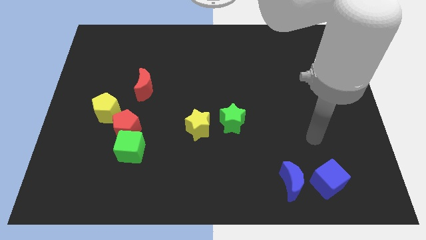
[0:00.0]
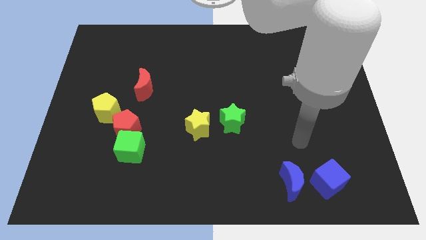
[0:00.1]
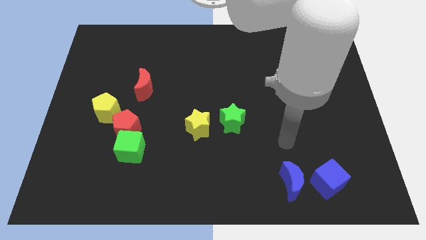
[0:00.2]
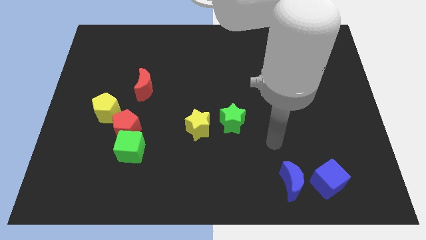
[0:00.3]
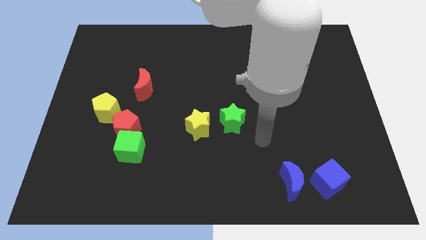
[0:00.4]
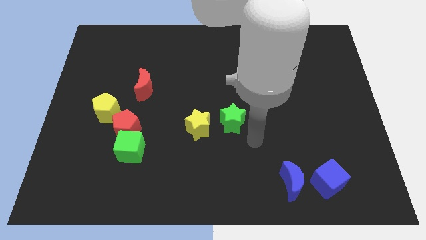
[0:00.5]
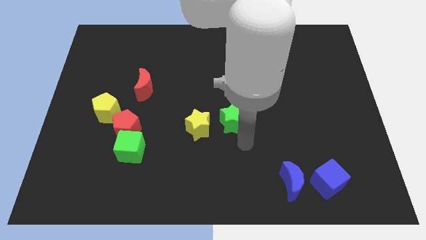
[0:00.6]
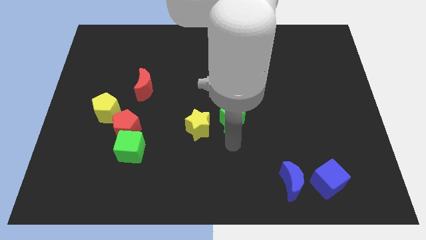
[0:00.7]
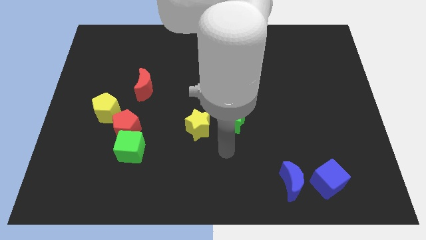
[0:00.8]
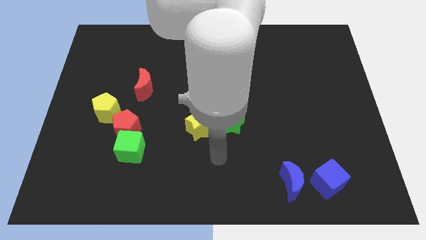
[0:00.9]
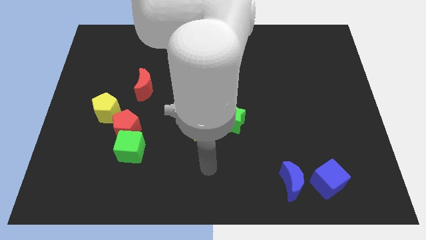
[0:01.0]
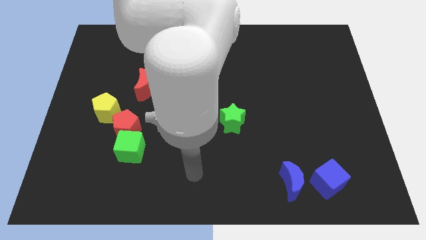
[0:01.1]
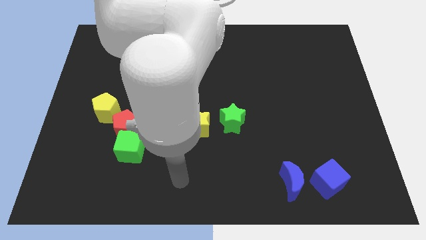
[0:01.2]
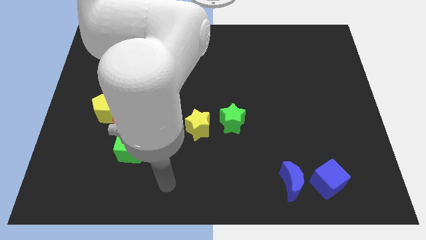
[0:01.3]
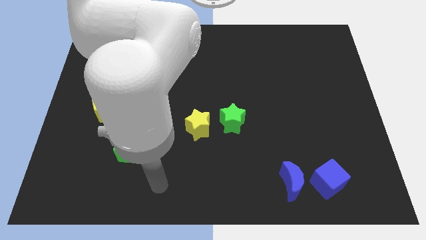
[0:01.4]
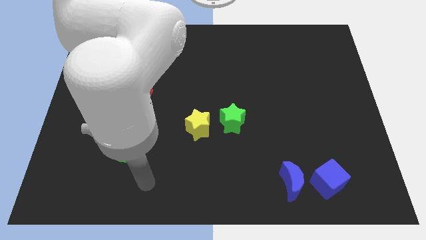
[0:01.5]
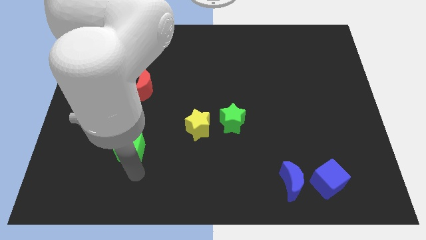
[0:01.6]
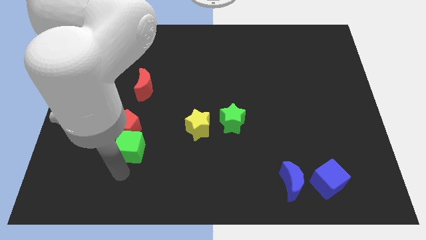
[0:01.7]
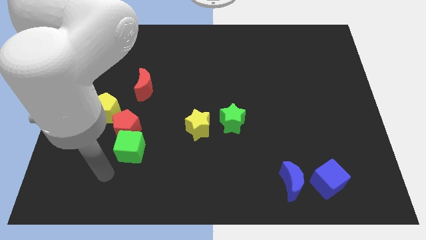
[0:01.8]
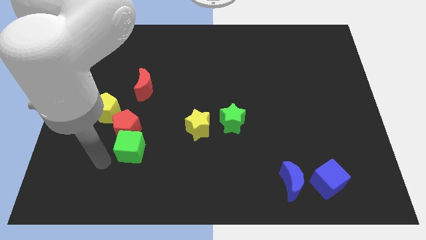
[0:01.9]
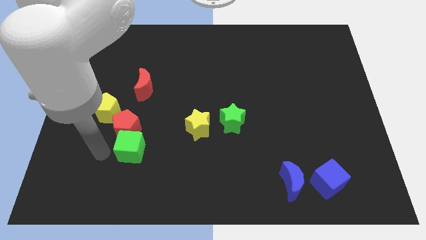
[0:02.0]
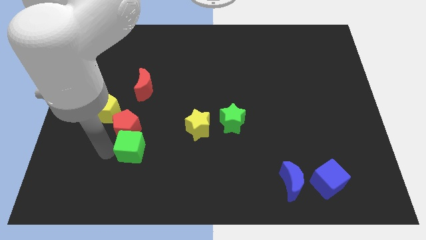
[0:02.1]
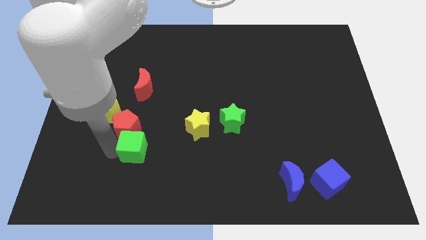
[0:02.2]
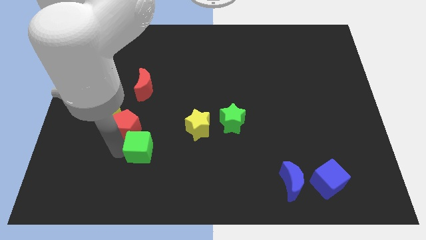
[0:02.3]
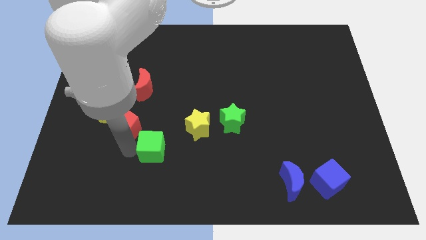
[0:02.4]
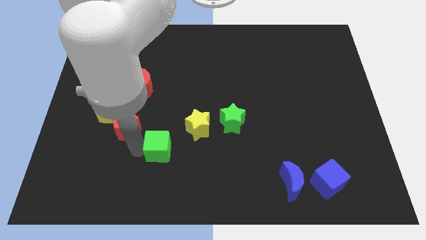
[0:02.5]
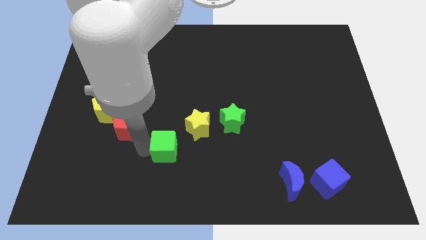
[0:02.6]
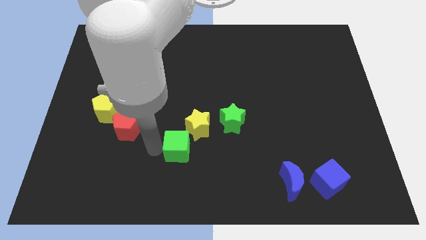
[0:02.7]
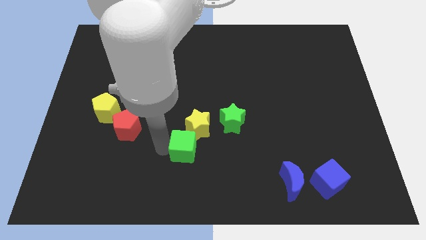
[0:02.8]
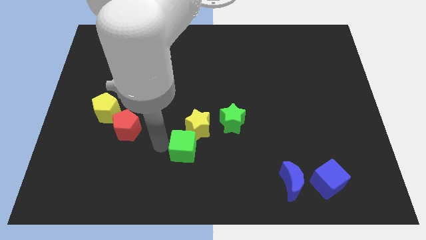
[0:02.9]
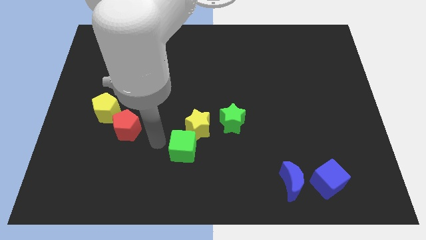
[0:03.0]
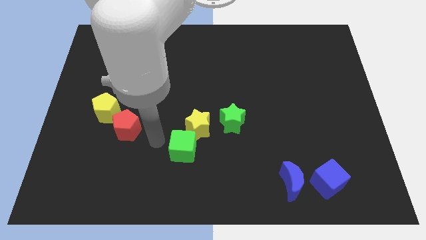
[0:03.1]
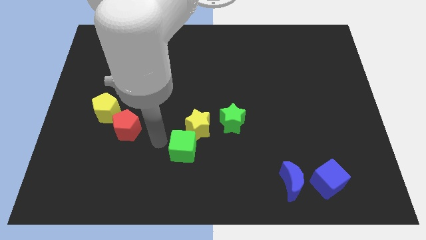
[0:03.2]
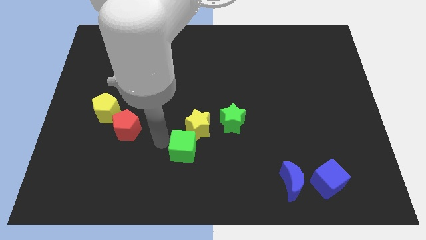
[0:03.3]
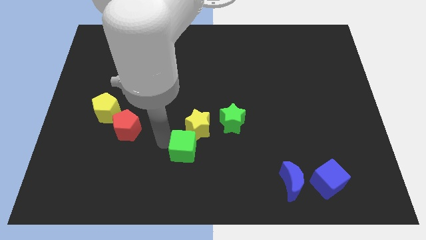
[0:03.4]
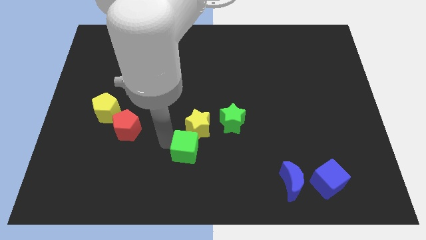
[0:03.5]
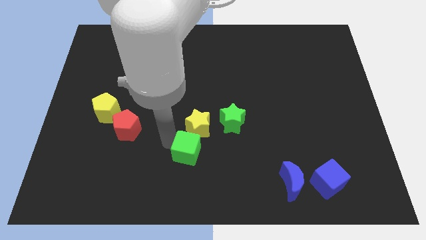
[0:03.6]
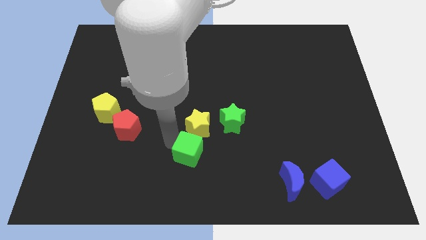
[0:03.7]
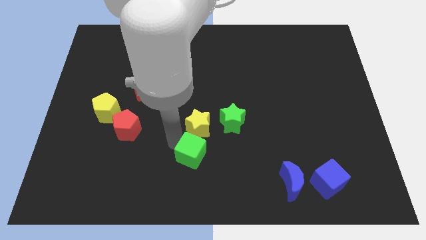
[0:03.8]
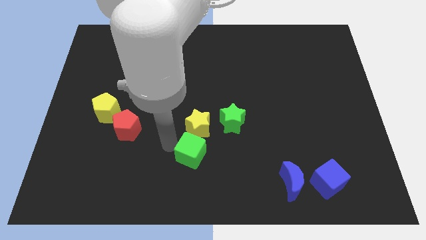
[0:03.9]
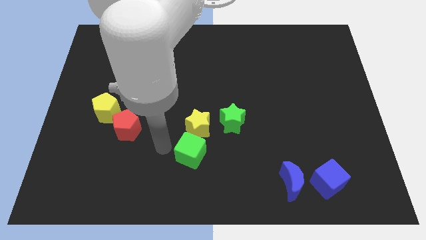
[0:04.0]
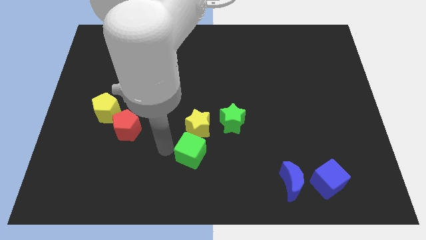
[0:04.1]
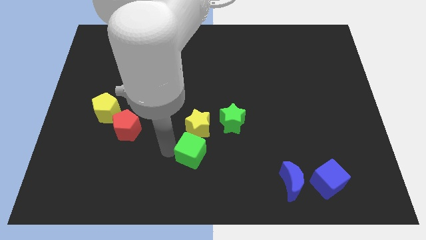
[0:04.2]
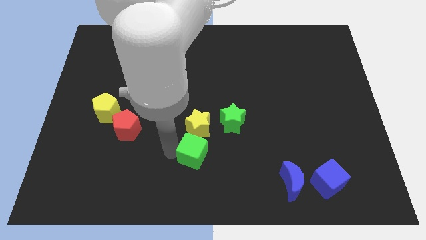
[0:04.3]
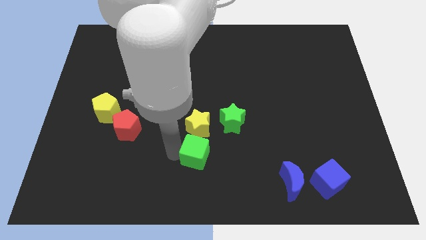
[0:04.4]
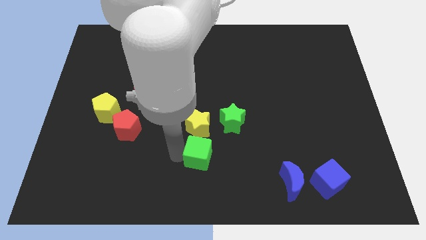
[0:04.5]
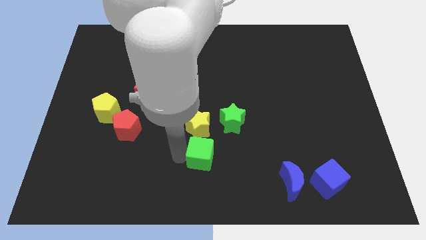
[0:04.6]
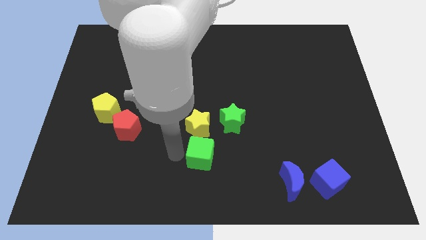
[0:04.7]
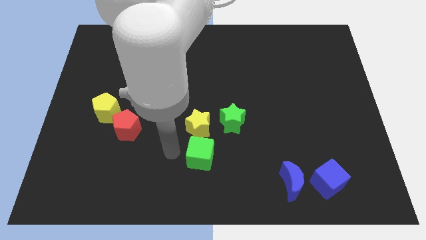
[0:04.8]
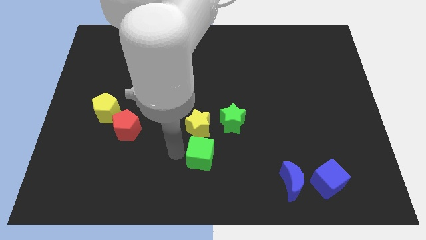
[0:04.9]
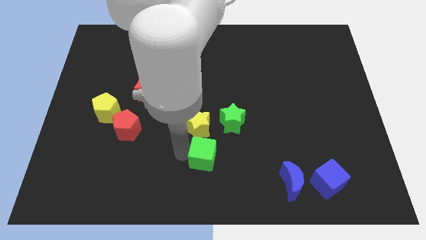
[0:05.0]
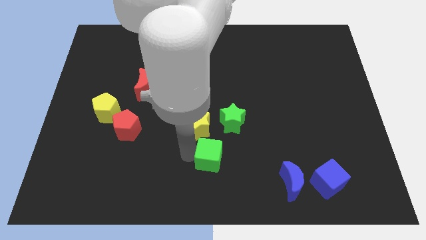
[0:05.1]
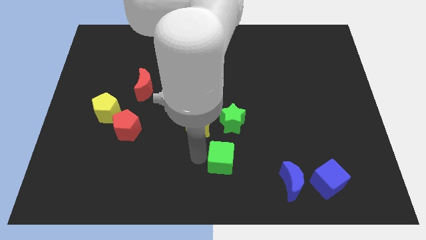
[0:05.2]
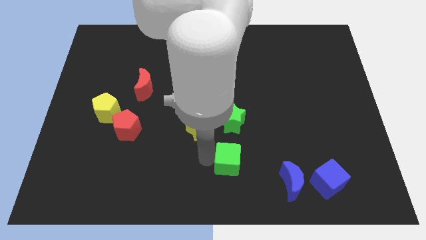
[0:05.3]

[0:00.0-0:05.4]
push the green cube right

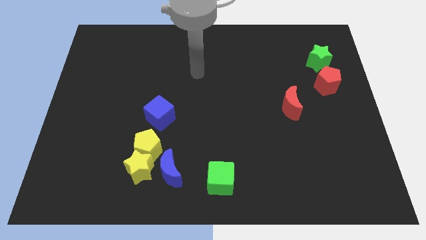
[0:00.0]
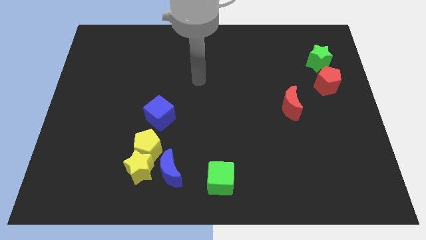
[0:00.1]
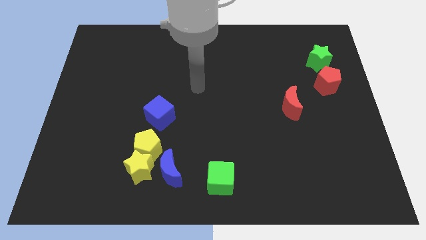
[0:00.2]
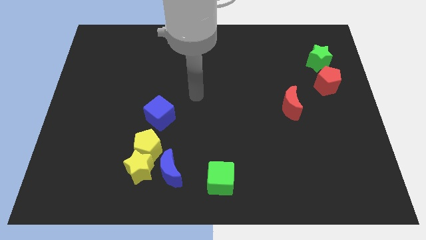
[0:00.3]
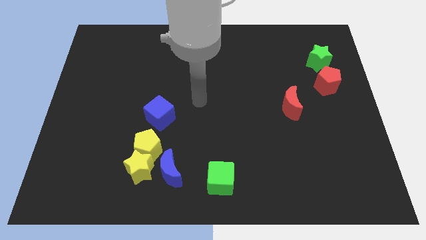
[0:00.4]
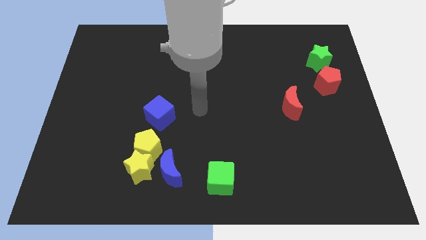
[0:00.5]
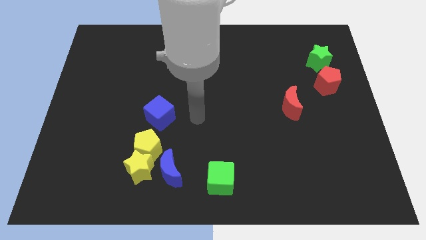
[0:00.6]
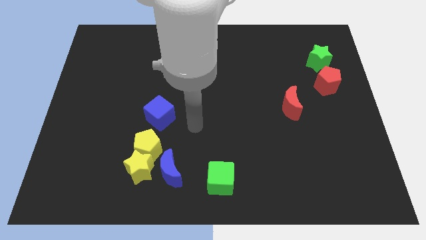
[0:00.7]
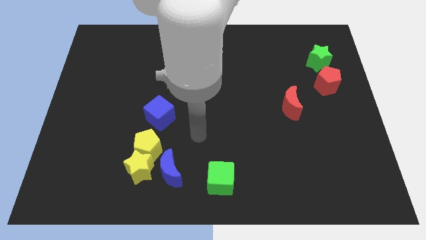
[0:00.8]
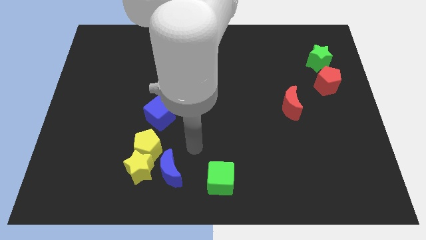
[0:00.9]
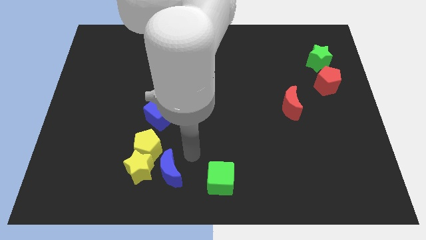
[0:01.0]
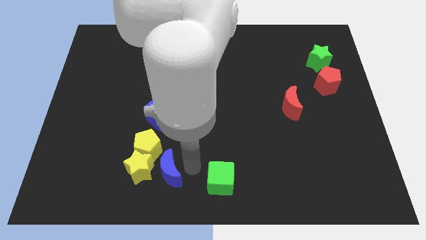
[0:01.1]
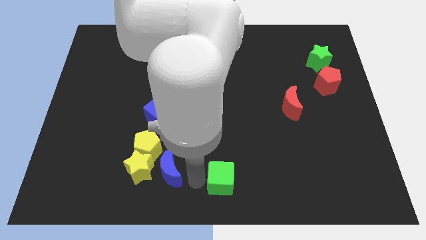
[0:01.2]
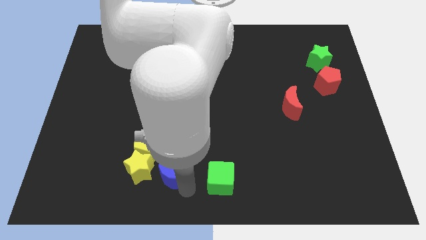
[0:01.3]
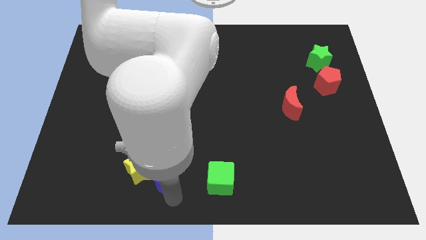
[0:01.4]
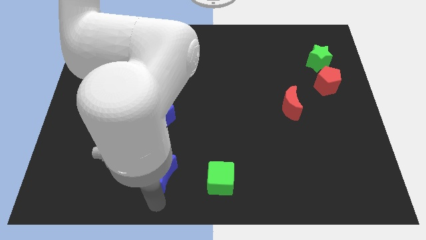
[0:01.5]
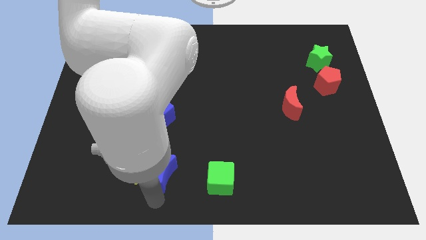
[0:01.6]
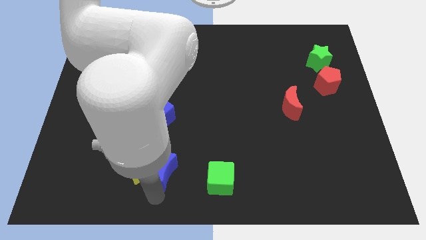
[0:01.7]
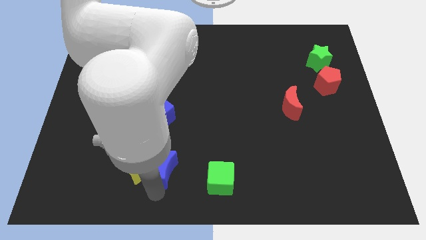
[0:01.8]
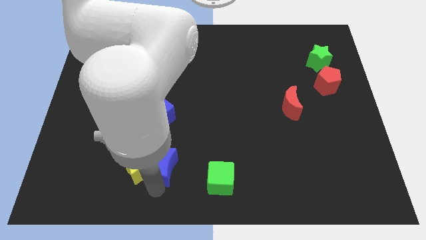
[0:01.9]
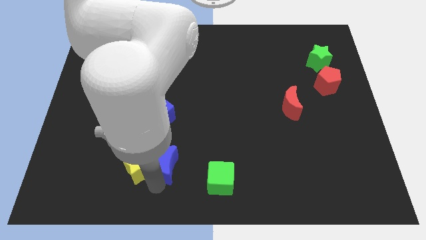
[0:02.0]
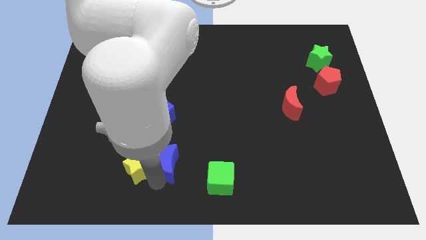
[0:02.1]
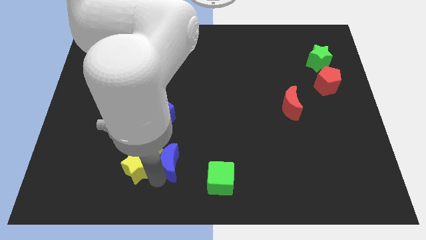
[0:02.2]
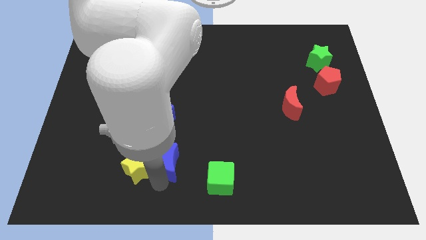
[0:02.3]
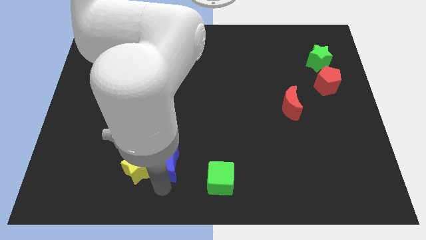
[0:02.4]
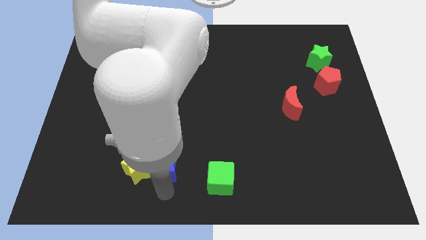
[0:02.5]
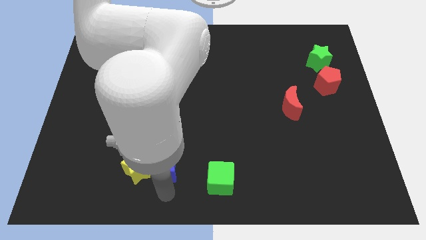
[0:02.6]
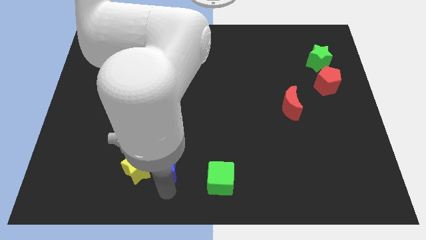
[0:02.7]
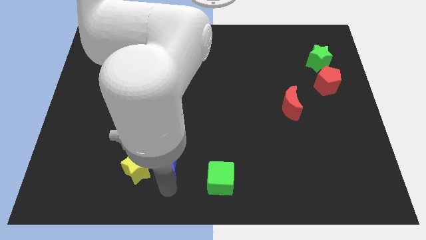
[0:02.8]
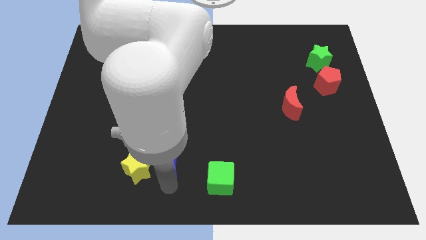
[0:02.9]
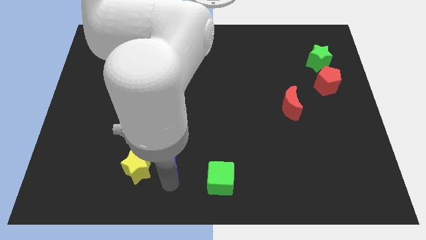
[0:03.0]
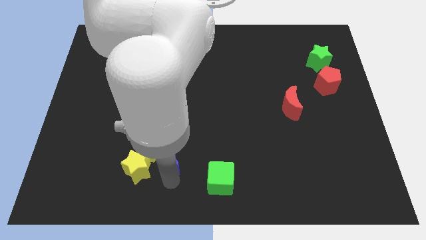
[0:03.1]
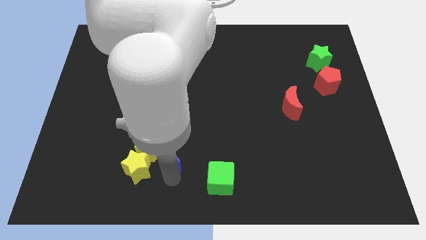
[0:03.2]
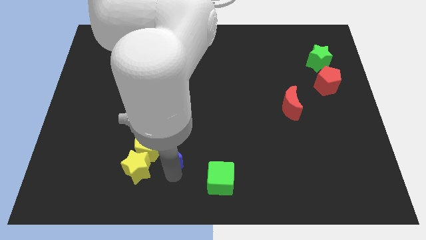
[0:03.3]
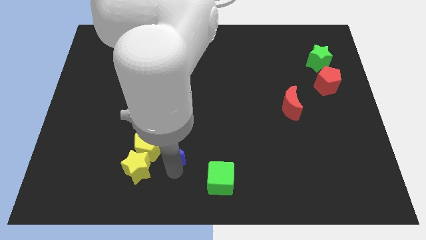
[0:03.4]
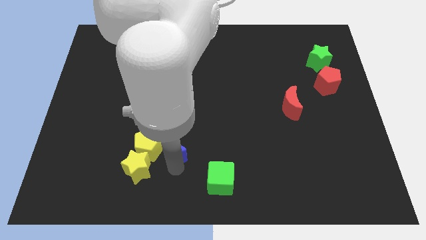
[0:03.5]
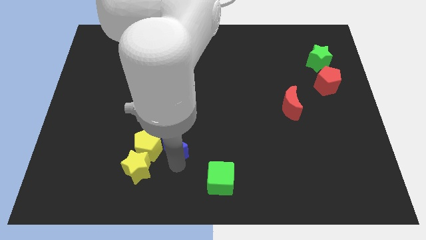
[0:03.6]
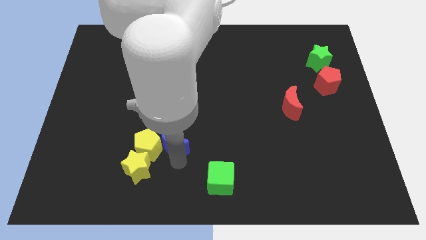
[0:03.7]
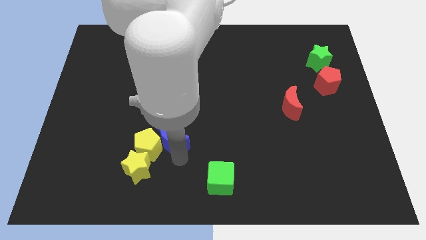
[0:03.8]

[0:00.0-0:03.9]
move the blue moon slightly upwards
